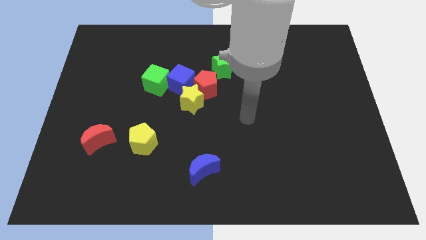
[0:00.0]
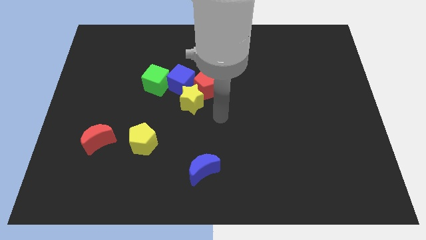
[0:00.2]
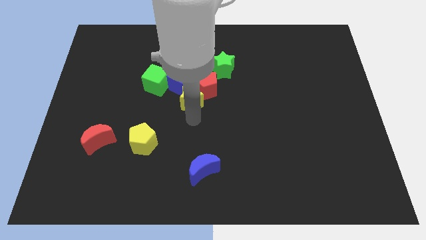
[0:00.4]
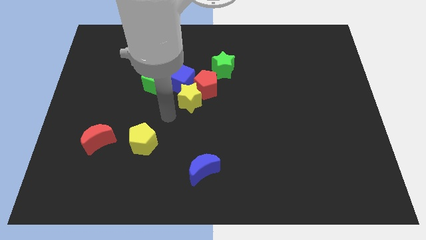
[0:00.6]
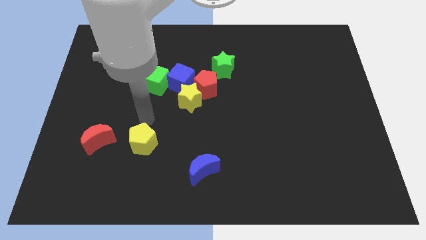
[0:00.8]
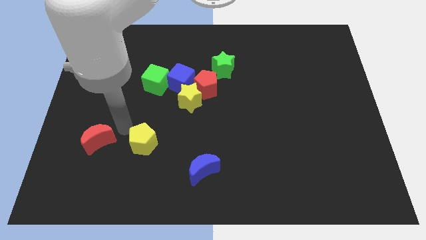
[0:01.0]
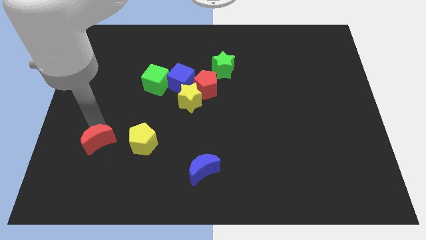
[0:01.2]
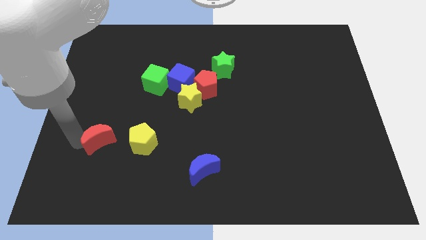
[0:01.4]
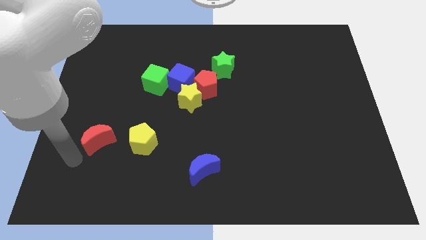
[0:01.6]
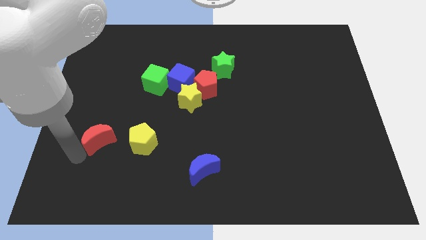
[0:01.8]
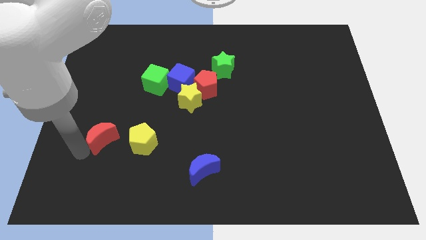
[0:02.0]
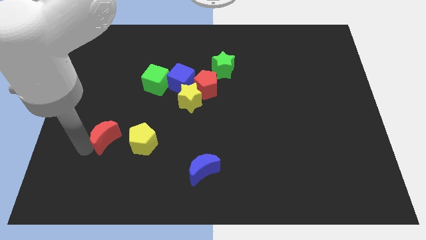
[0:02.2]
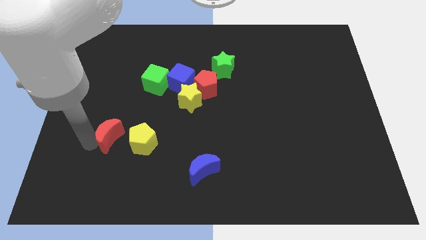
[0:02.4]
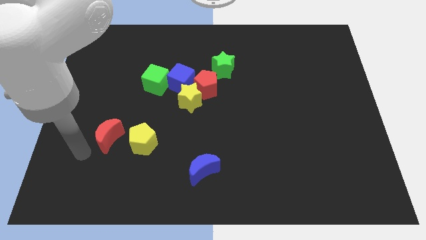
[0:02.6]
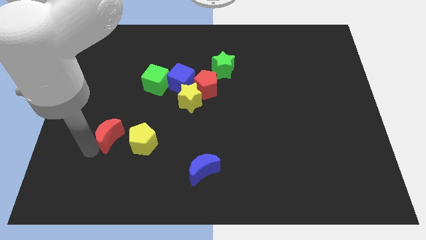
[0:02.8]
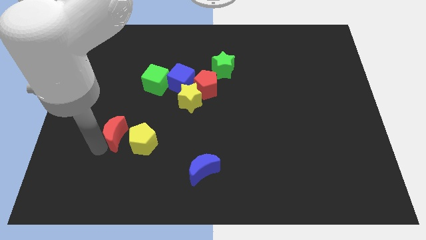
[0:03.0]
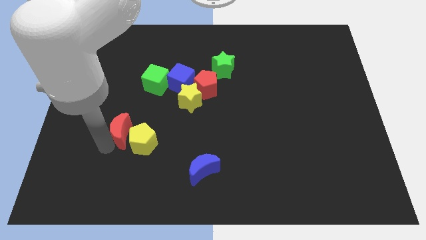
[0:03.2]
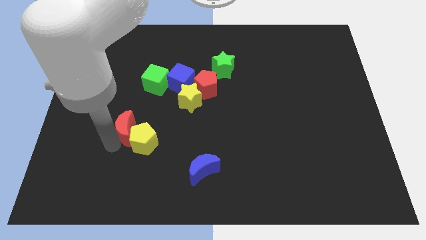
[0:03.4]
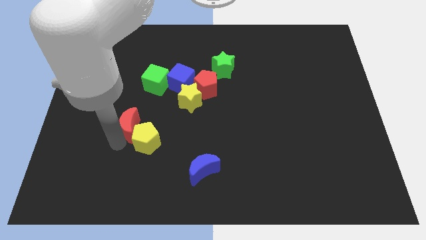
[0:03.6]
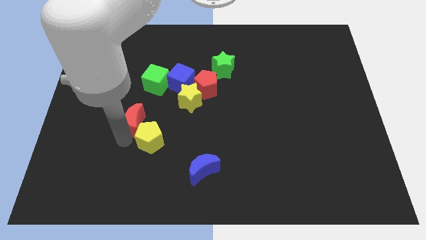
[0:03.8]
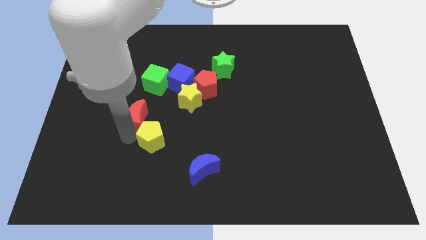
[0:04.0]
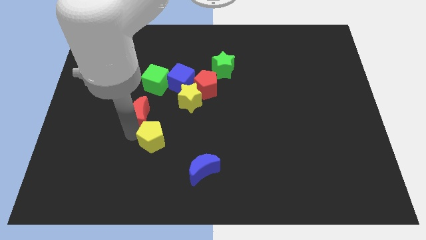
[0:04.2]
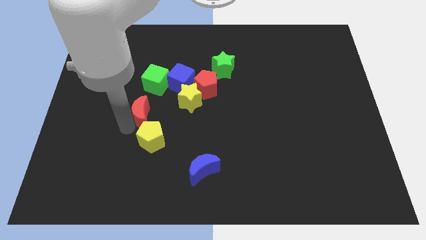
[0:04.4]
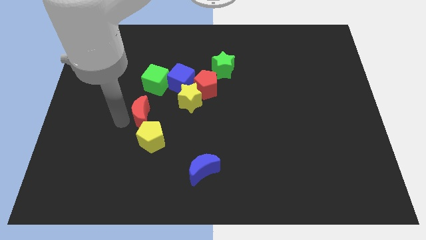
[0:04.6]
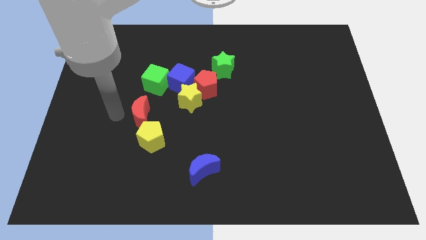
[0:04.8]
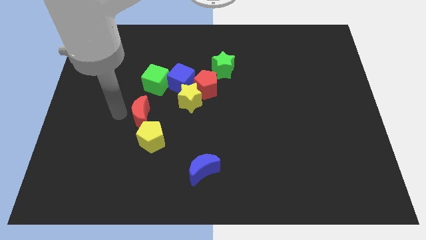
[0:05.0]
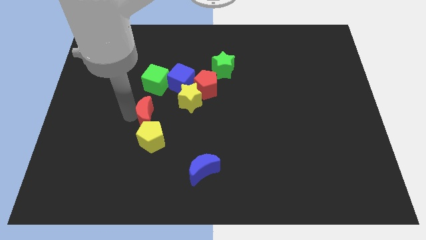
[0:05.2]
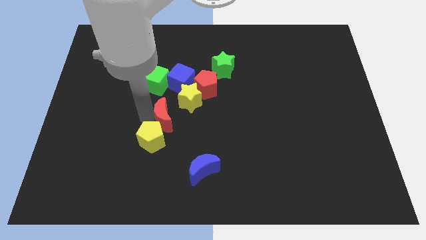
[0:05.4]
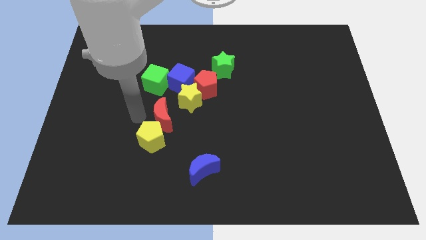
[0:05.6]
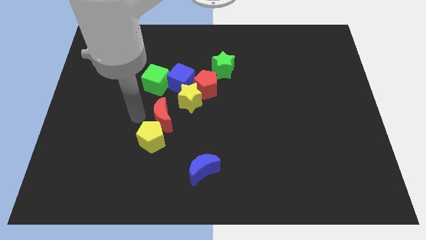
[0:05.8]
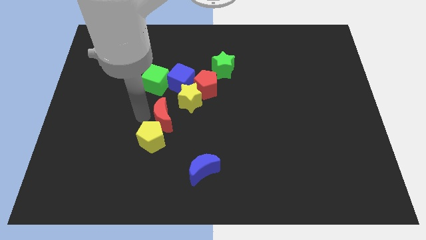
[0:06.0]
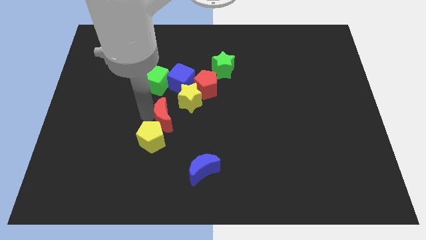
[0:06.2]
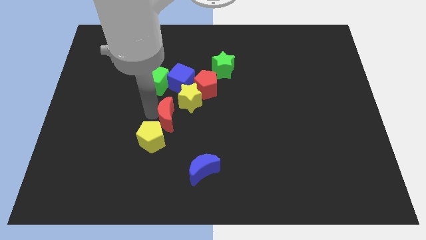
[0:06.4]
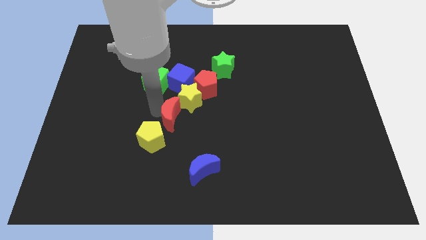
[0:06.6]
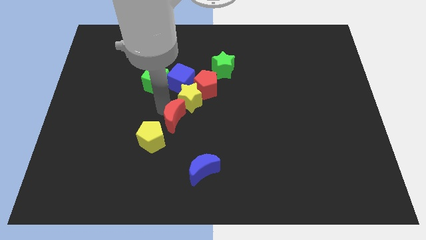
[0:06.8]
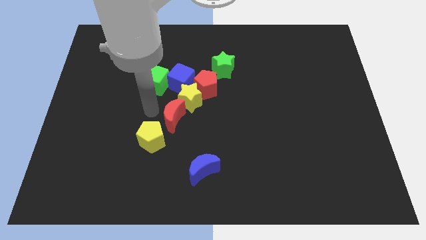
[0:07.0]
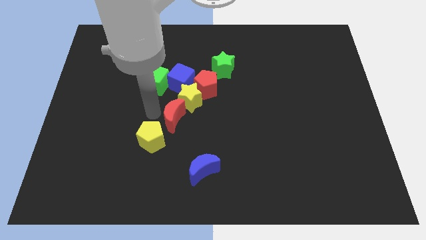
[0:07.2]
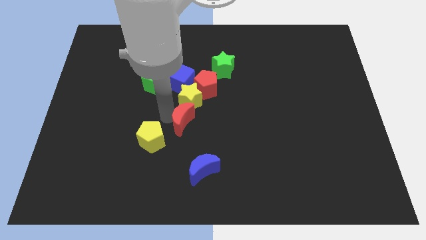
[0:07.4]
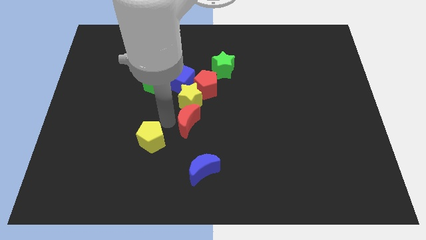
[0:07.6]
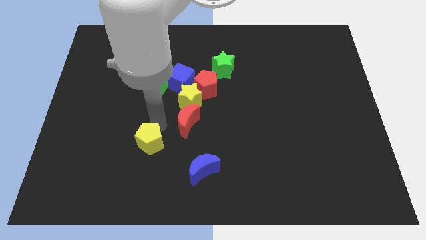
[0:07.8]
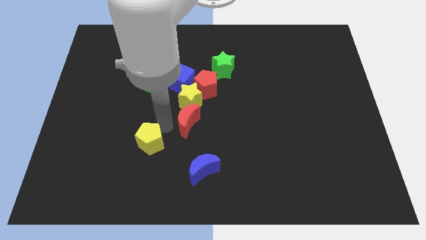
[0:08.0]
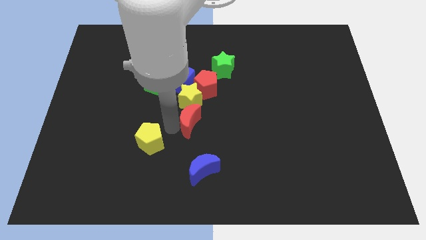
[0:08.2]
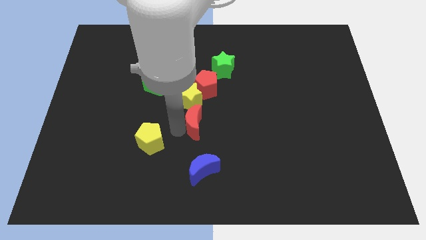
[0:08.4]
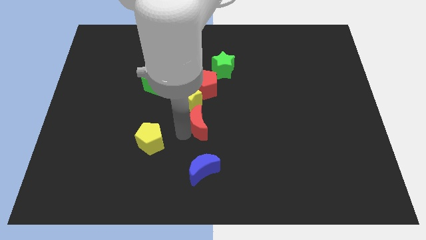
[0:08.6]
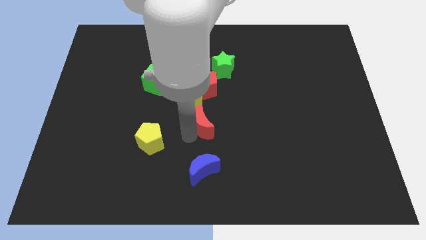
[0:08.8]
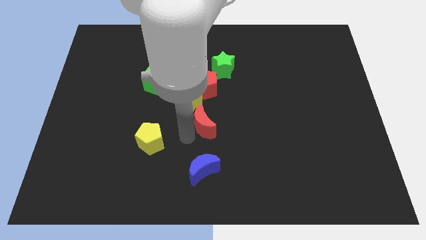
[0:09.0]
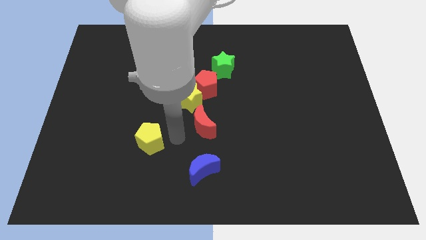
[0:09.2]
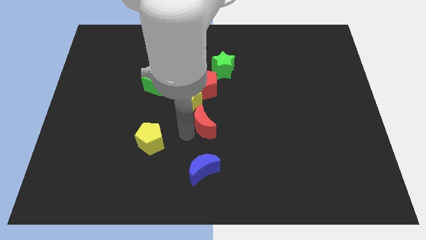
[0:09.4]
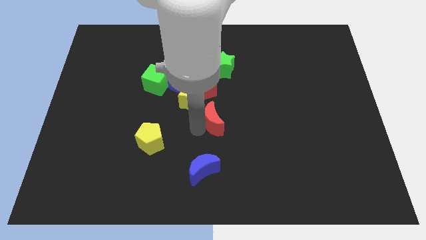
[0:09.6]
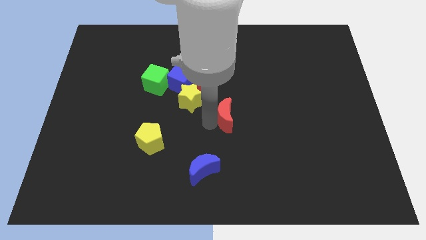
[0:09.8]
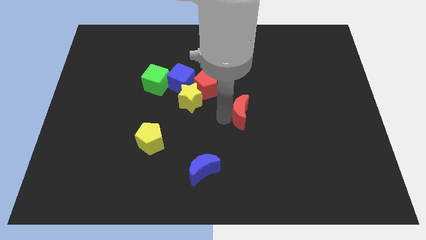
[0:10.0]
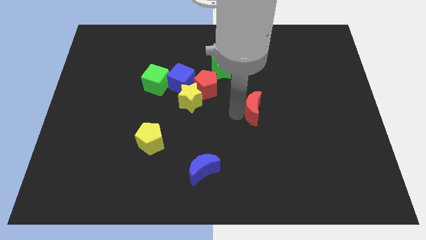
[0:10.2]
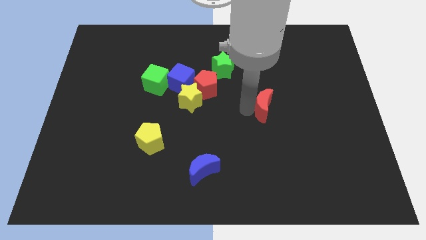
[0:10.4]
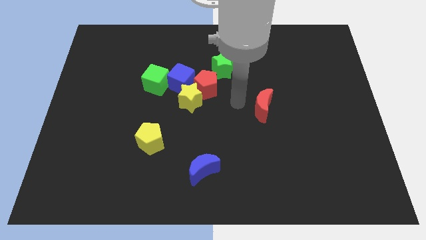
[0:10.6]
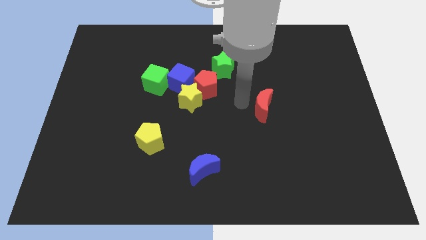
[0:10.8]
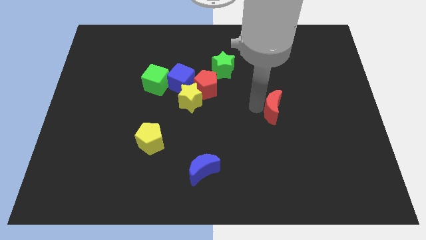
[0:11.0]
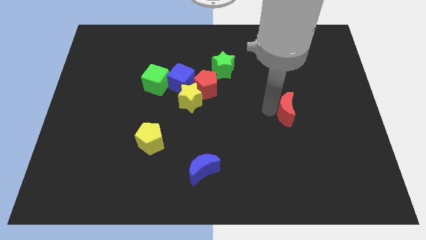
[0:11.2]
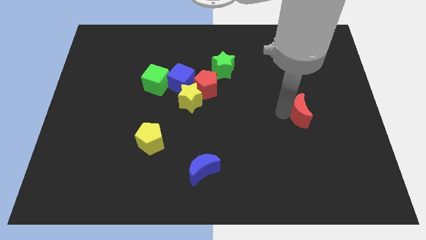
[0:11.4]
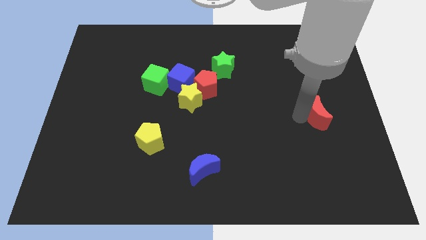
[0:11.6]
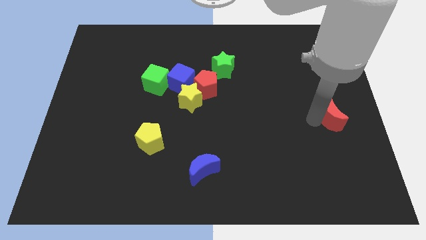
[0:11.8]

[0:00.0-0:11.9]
slide the red moon to the right side
